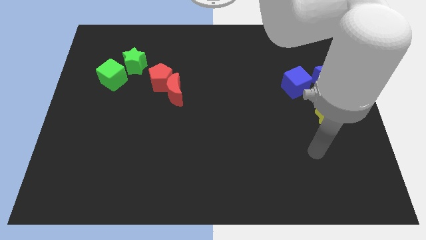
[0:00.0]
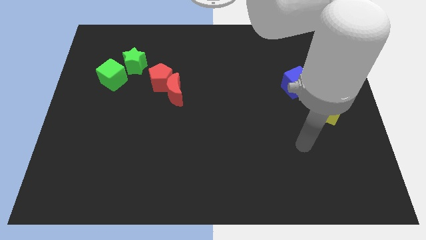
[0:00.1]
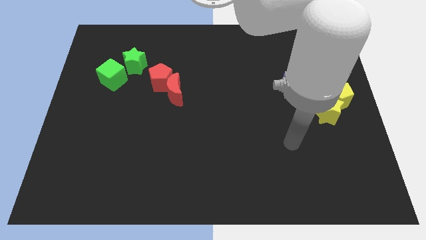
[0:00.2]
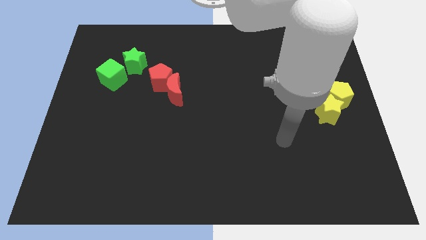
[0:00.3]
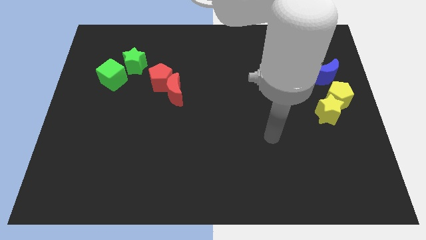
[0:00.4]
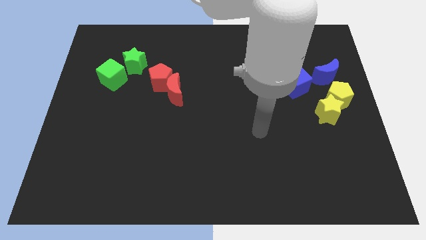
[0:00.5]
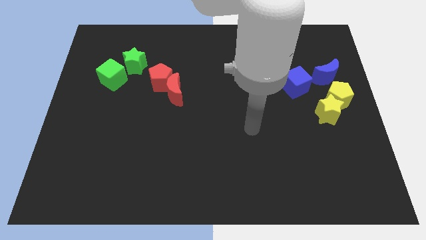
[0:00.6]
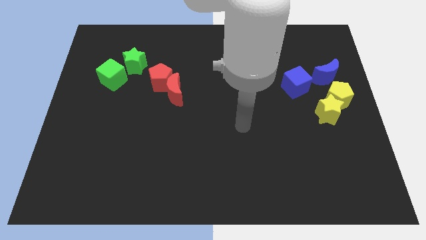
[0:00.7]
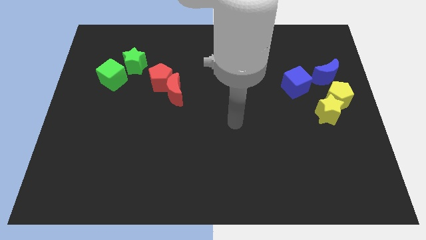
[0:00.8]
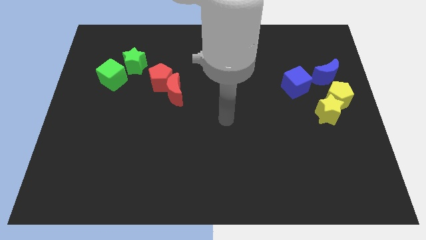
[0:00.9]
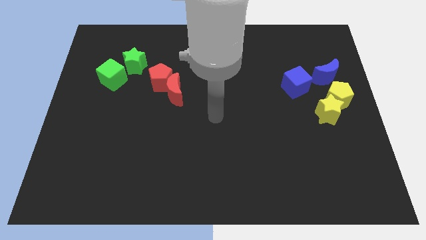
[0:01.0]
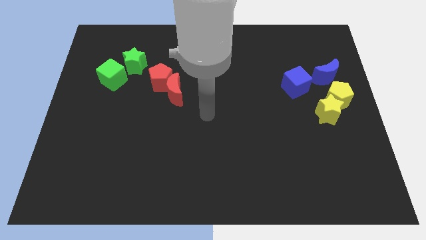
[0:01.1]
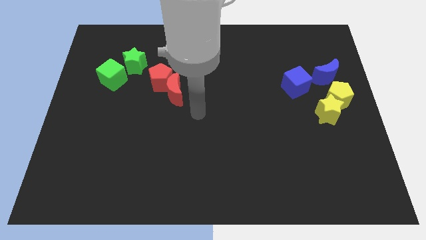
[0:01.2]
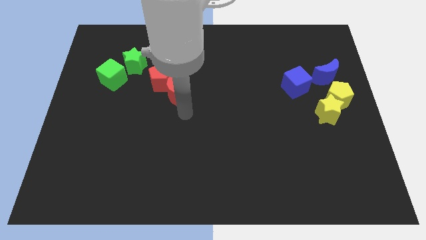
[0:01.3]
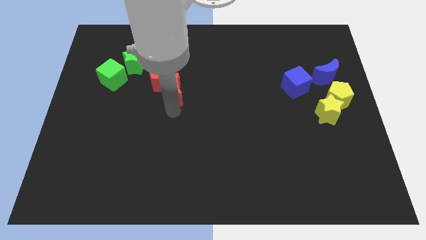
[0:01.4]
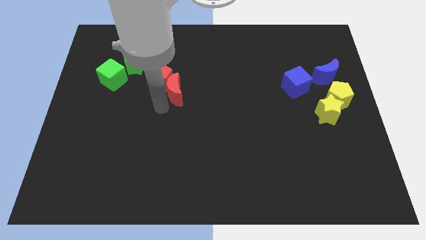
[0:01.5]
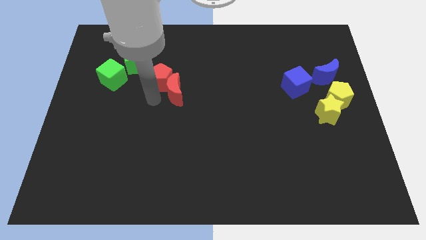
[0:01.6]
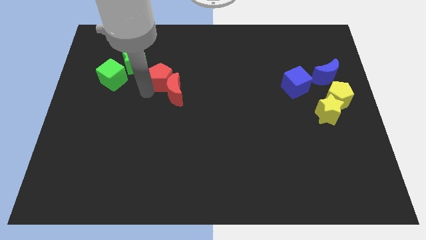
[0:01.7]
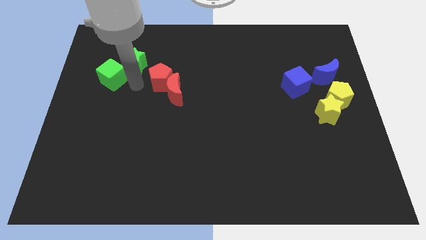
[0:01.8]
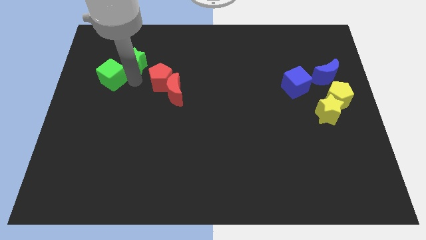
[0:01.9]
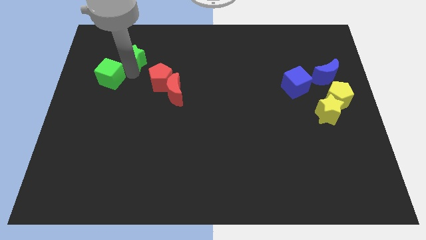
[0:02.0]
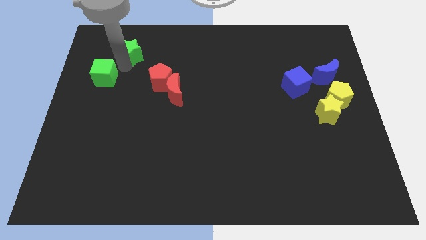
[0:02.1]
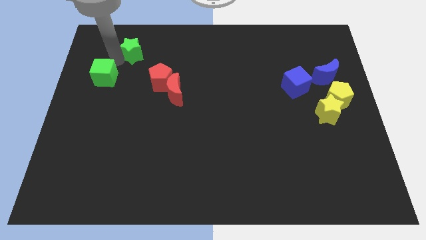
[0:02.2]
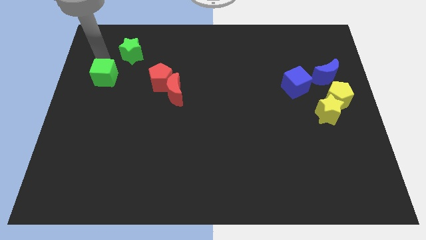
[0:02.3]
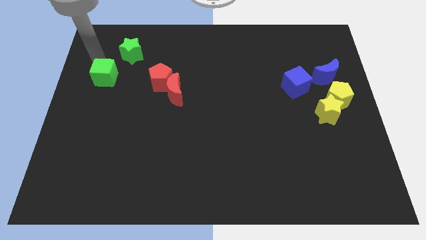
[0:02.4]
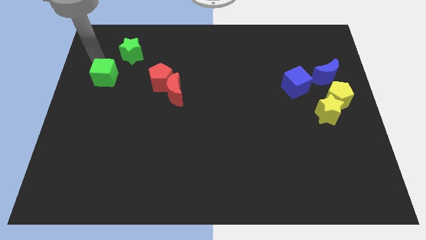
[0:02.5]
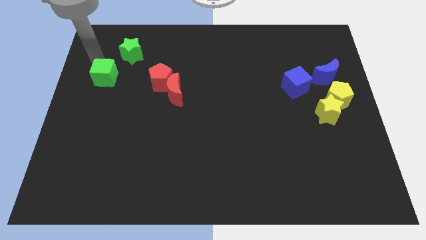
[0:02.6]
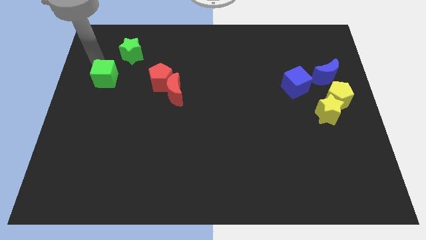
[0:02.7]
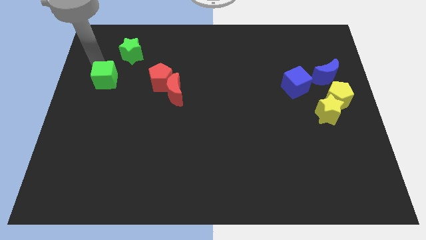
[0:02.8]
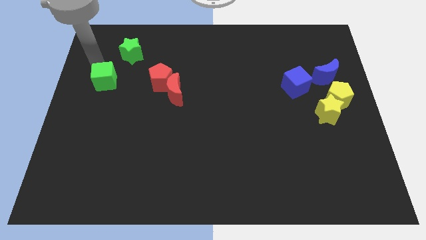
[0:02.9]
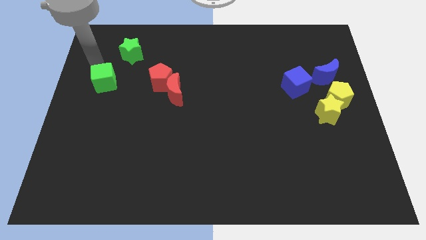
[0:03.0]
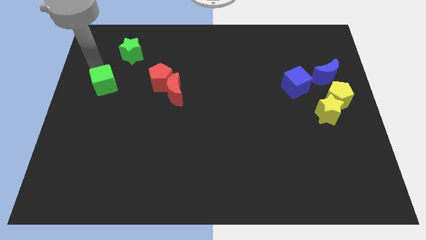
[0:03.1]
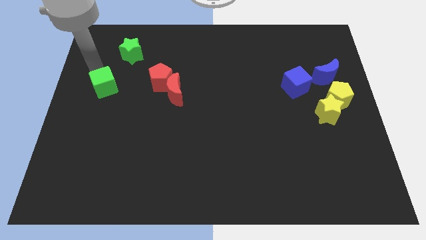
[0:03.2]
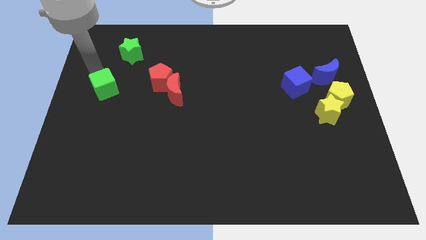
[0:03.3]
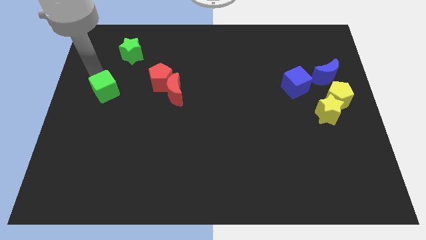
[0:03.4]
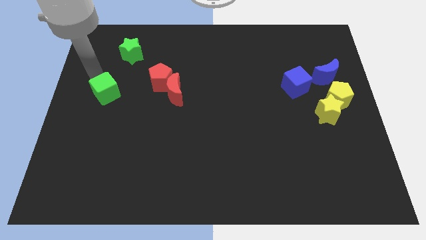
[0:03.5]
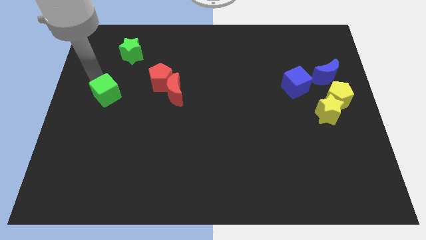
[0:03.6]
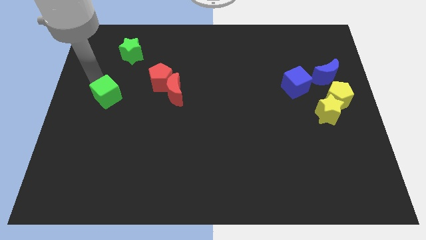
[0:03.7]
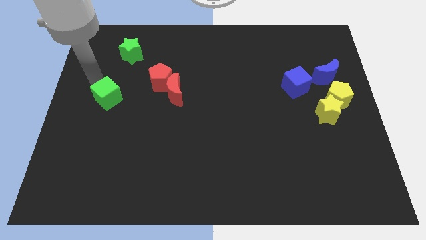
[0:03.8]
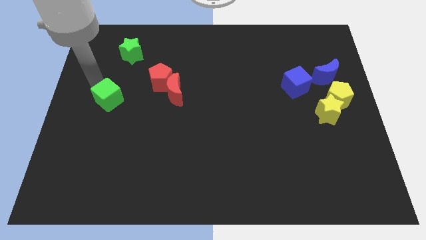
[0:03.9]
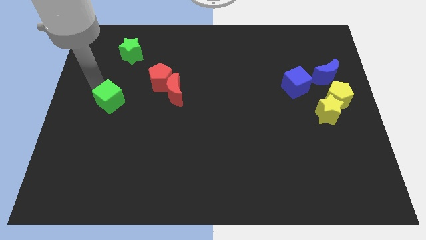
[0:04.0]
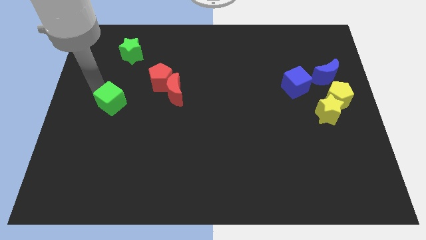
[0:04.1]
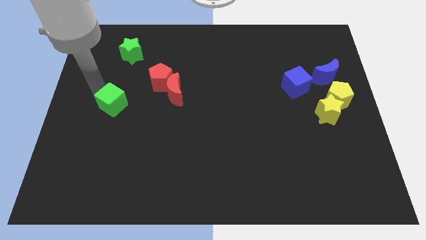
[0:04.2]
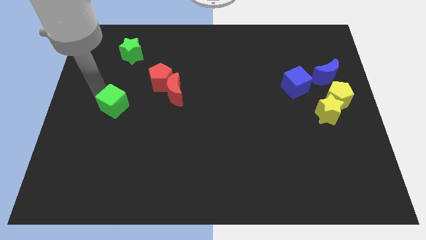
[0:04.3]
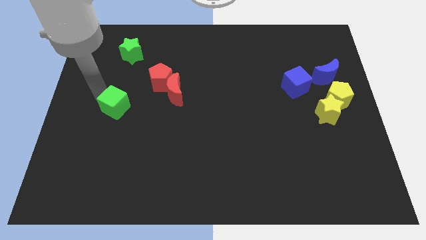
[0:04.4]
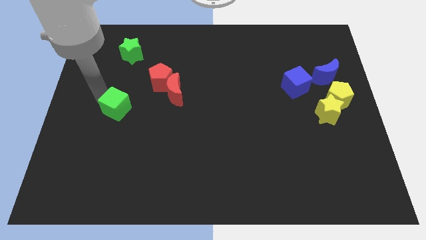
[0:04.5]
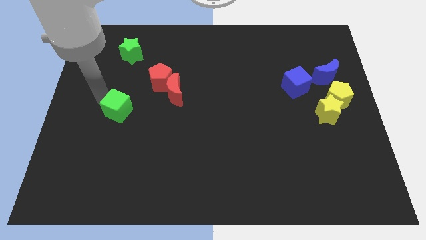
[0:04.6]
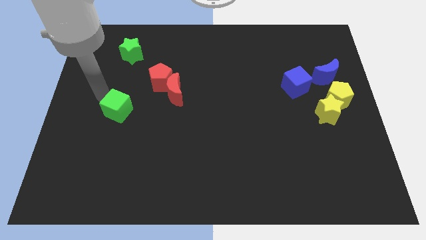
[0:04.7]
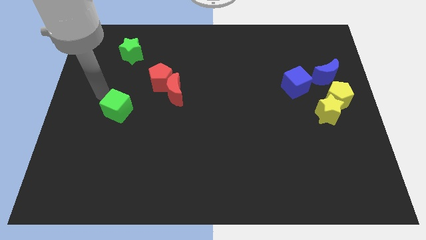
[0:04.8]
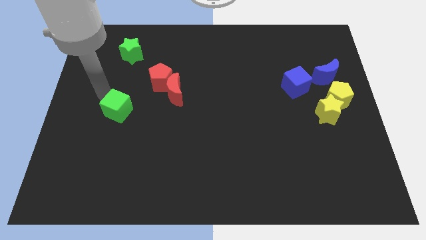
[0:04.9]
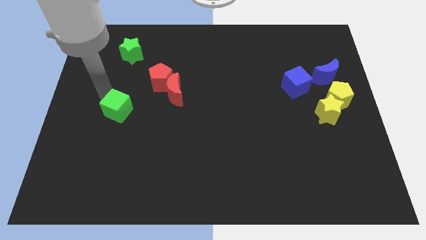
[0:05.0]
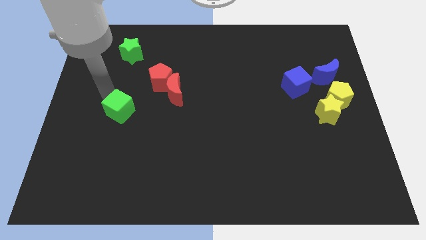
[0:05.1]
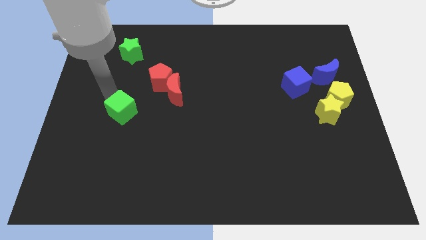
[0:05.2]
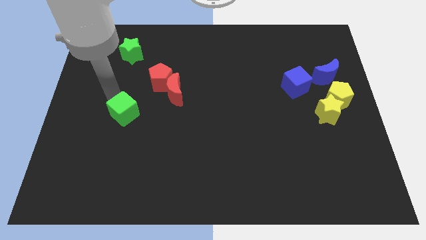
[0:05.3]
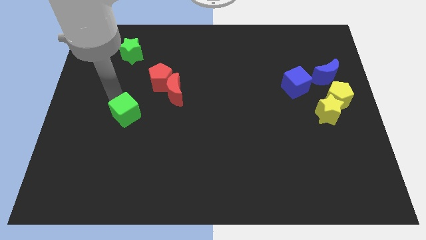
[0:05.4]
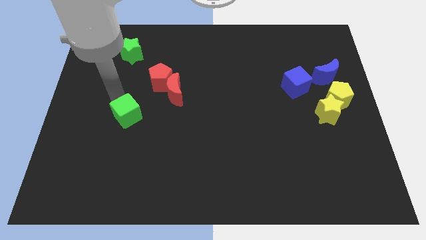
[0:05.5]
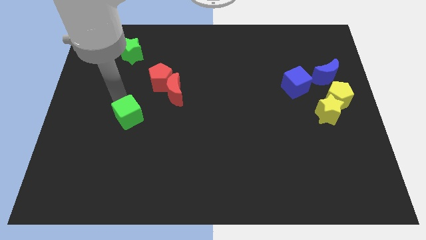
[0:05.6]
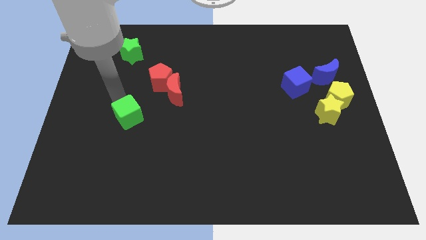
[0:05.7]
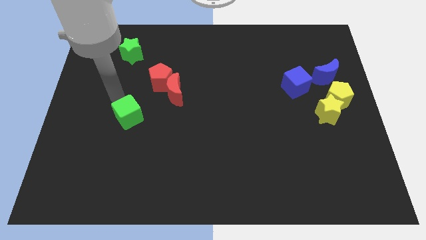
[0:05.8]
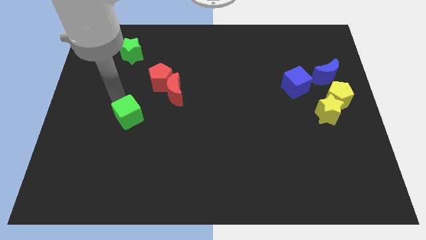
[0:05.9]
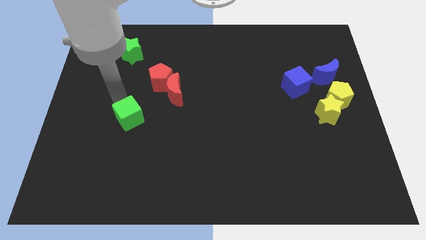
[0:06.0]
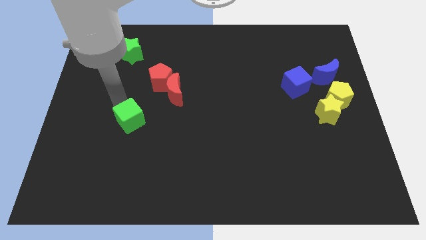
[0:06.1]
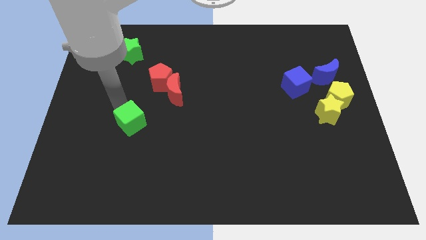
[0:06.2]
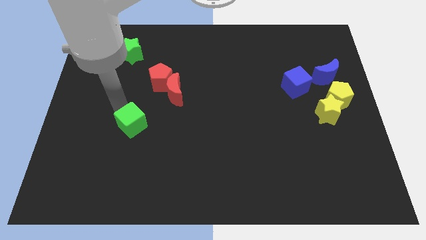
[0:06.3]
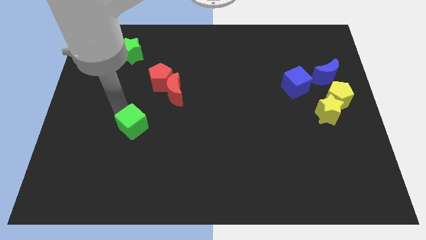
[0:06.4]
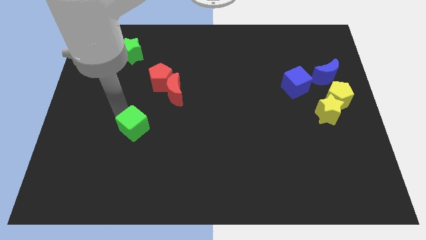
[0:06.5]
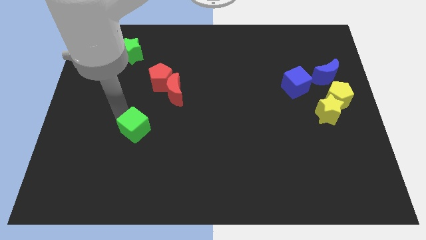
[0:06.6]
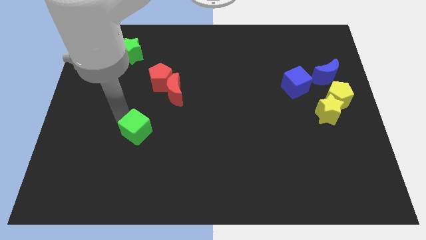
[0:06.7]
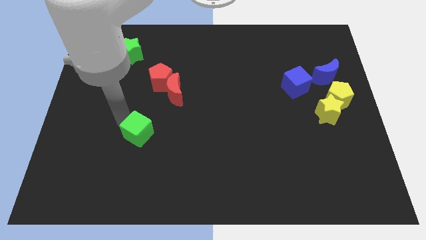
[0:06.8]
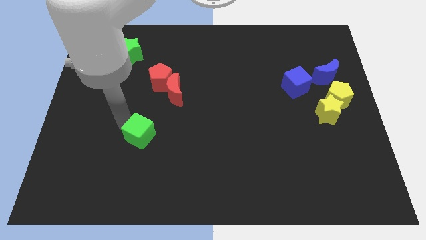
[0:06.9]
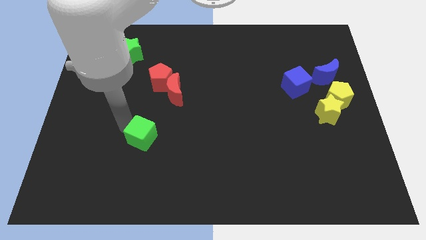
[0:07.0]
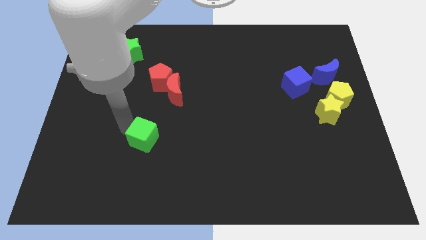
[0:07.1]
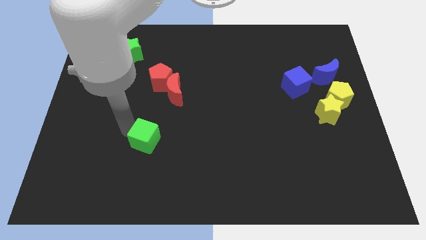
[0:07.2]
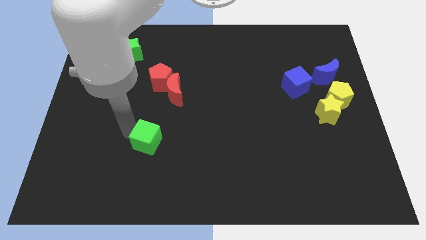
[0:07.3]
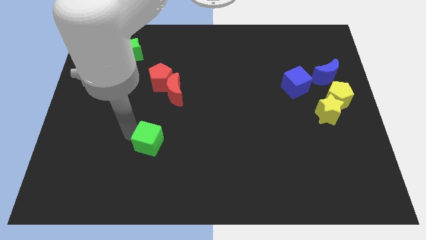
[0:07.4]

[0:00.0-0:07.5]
move the green cube diagonally downwards and right

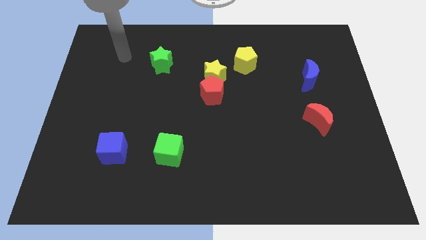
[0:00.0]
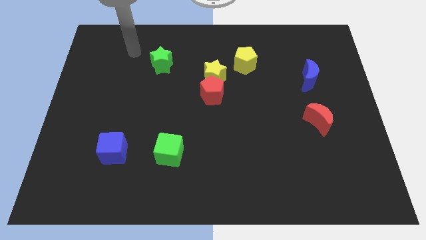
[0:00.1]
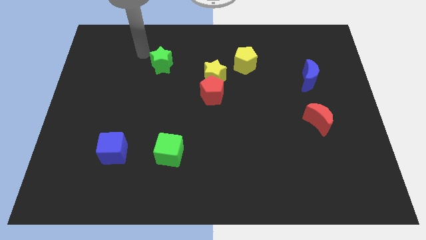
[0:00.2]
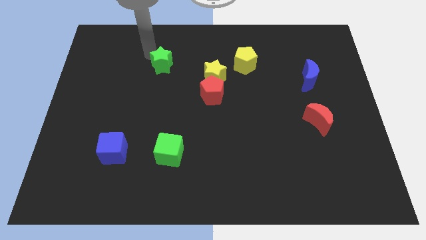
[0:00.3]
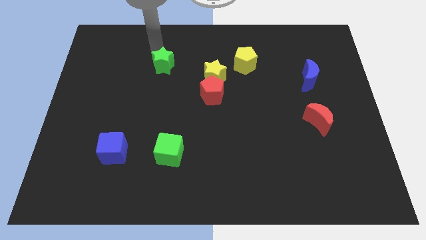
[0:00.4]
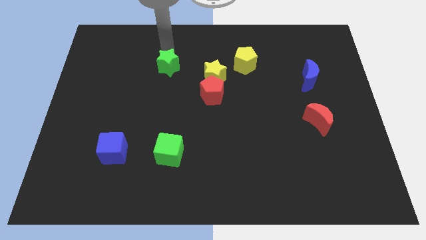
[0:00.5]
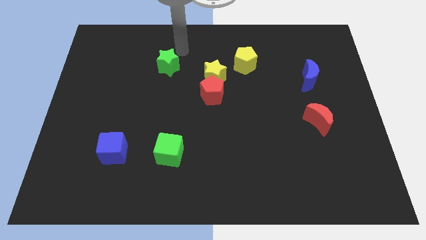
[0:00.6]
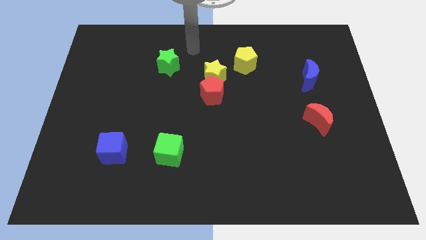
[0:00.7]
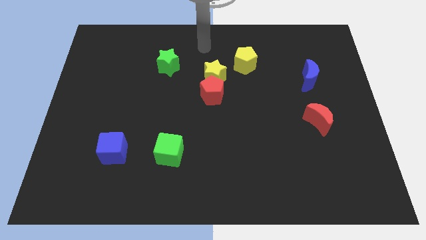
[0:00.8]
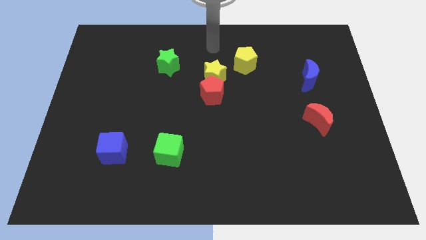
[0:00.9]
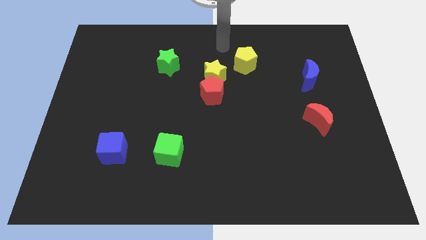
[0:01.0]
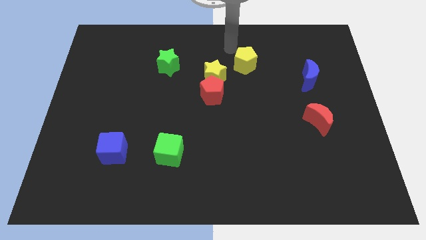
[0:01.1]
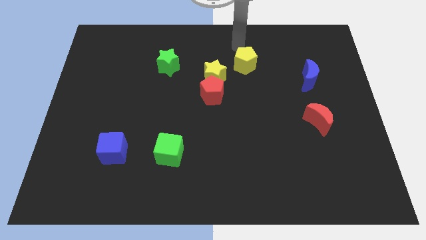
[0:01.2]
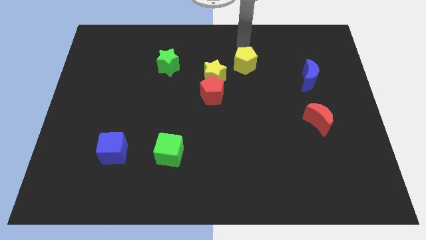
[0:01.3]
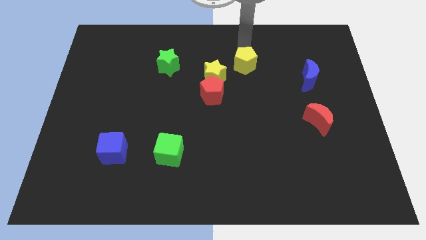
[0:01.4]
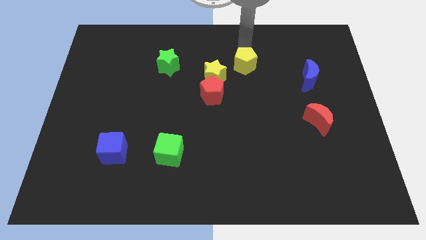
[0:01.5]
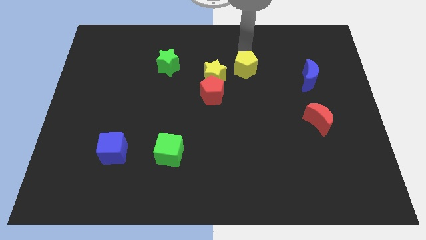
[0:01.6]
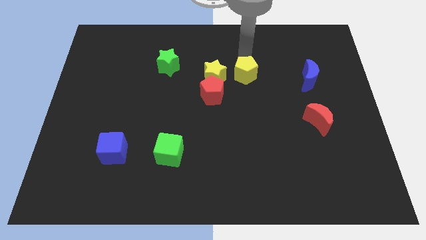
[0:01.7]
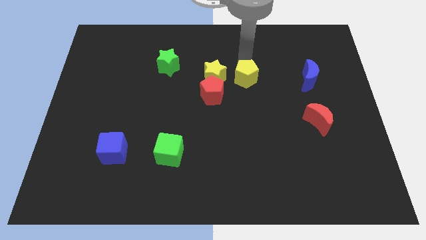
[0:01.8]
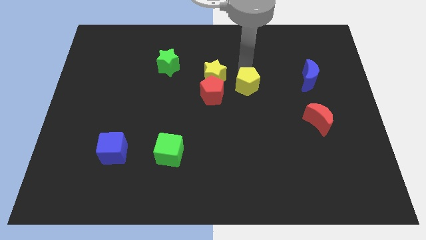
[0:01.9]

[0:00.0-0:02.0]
move the yellow pentagon down a bit
